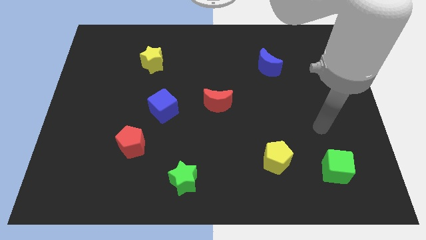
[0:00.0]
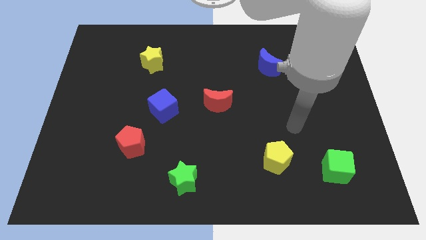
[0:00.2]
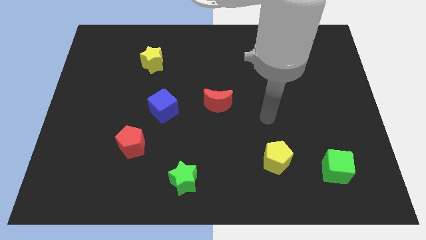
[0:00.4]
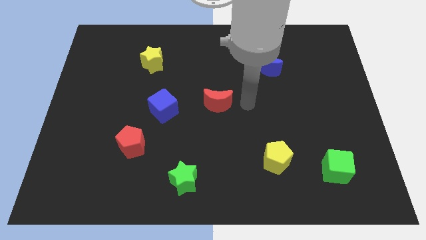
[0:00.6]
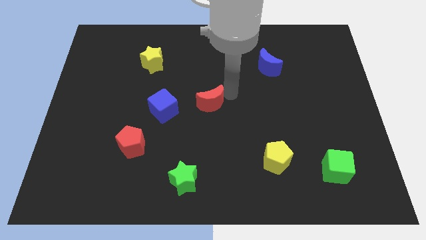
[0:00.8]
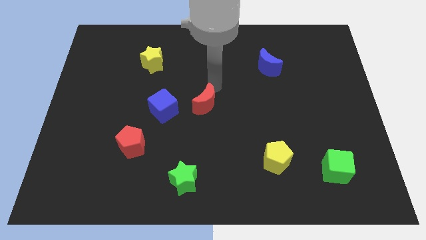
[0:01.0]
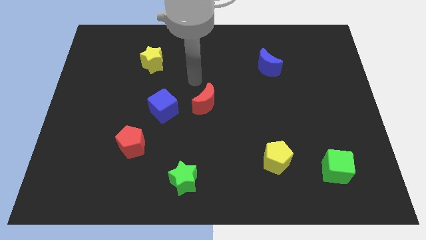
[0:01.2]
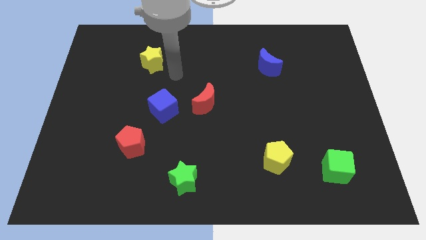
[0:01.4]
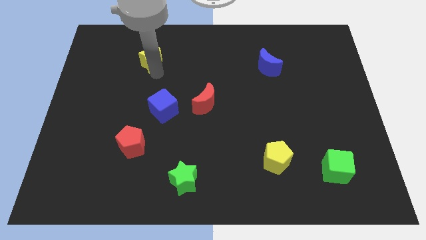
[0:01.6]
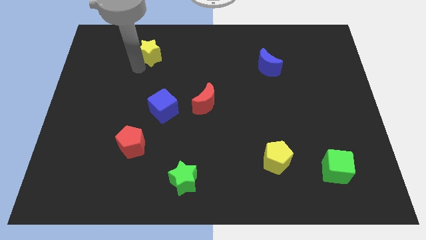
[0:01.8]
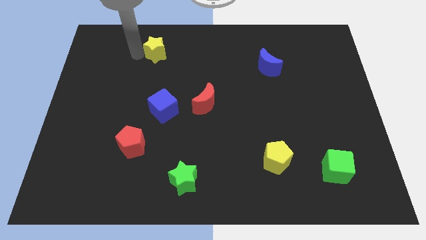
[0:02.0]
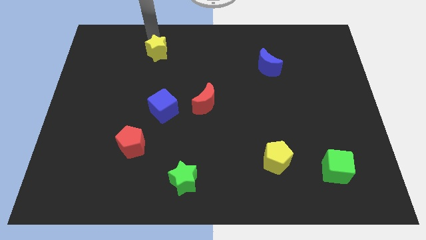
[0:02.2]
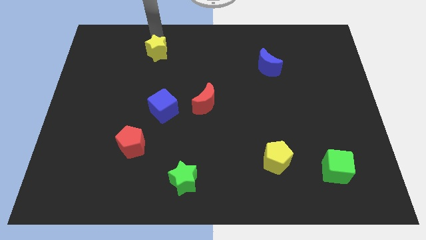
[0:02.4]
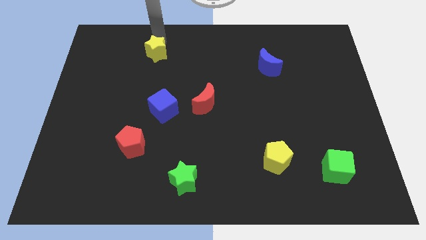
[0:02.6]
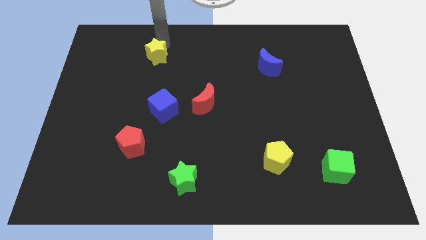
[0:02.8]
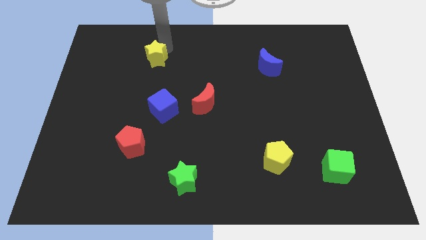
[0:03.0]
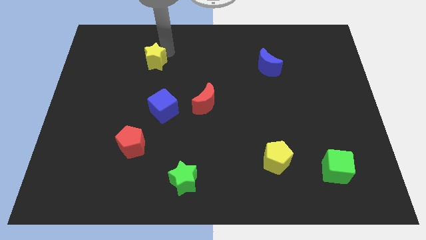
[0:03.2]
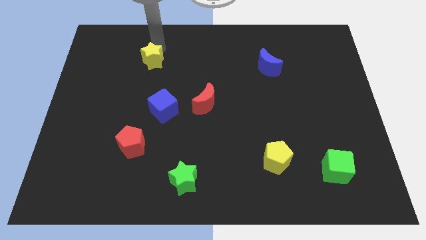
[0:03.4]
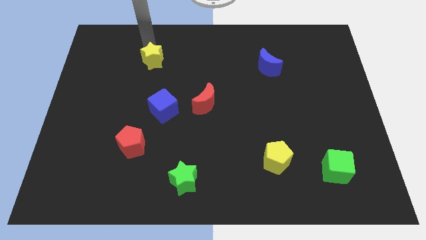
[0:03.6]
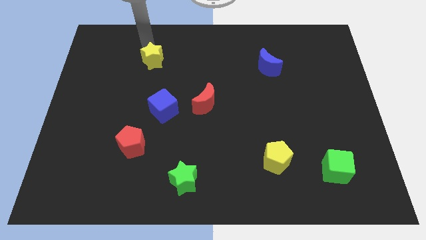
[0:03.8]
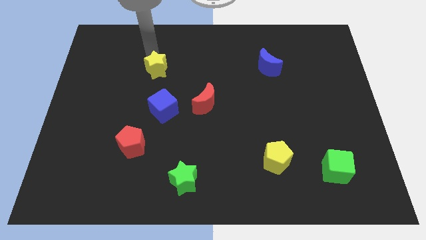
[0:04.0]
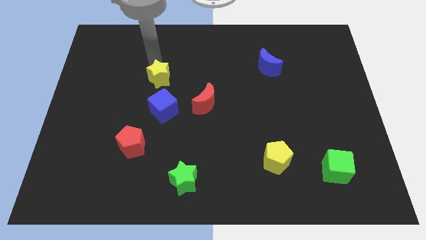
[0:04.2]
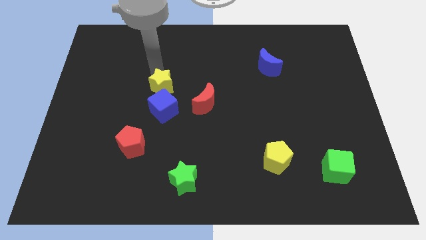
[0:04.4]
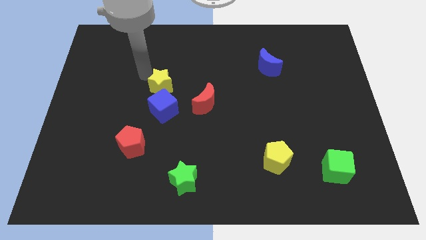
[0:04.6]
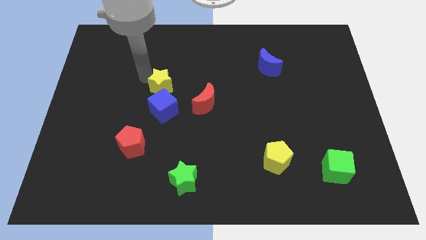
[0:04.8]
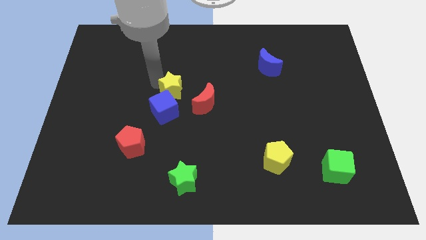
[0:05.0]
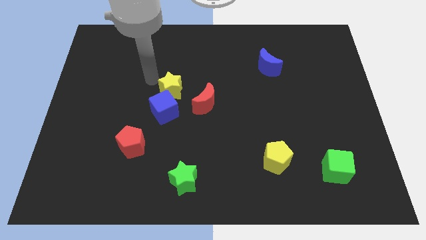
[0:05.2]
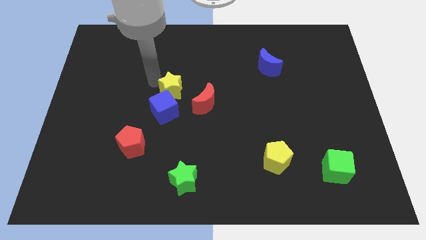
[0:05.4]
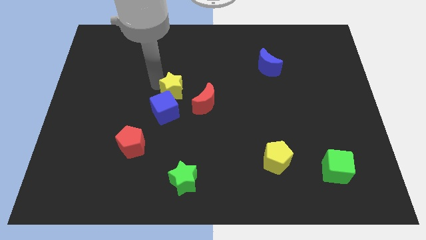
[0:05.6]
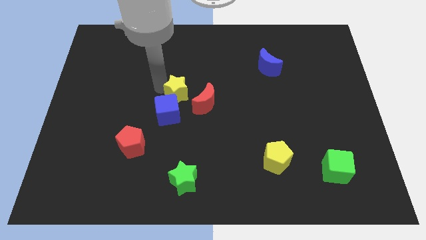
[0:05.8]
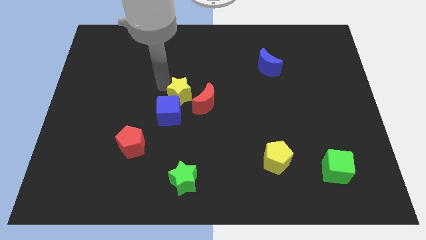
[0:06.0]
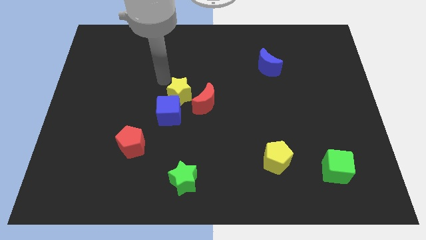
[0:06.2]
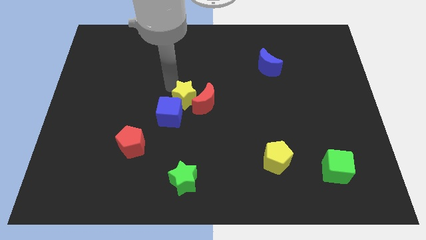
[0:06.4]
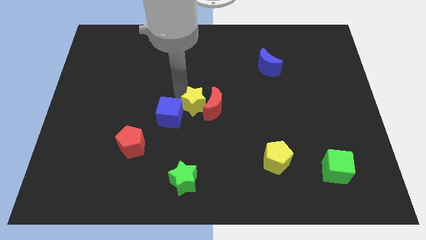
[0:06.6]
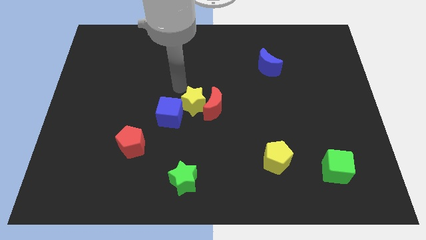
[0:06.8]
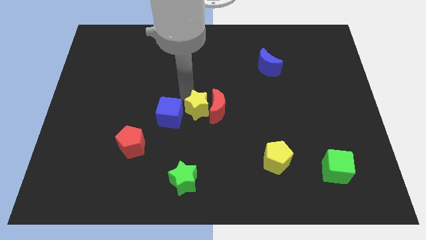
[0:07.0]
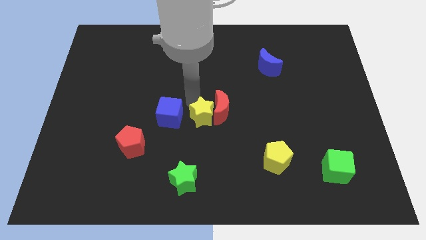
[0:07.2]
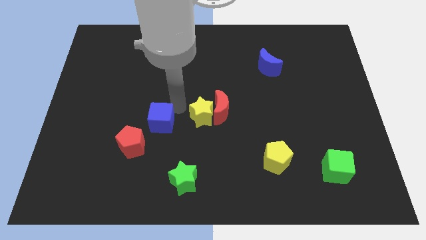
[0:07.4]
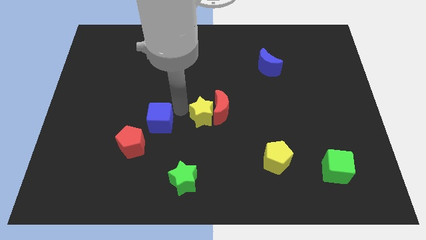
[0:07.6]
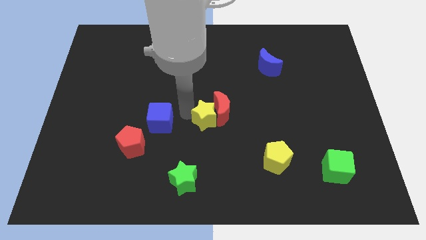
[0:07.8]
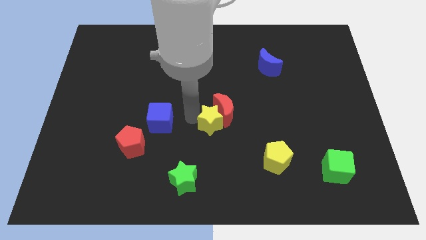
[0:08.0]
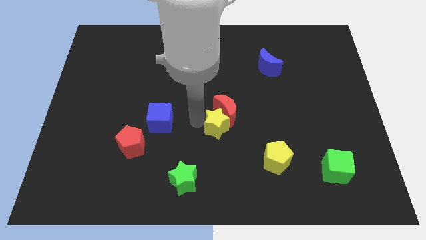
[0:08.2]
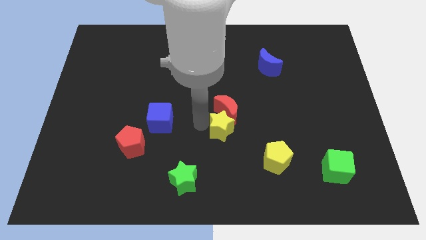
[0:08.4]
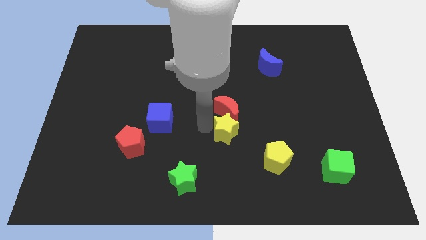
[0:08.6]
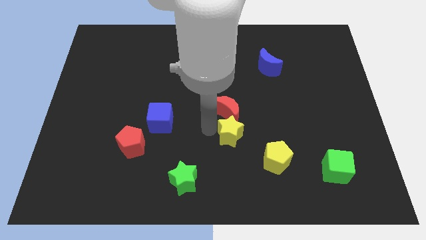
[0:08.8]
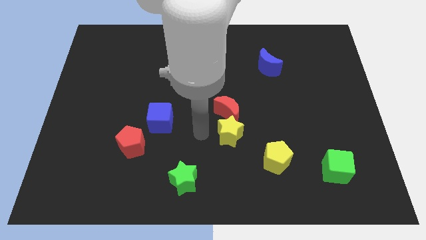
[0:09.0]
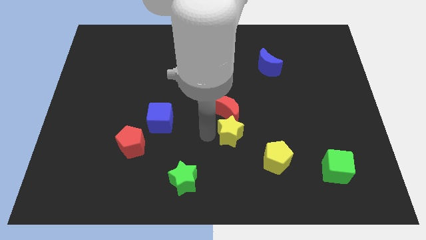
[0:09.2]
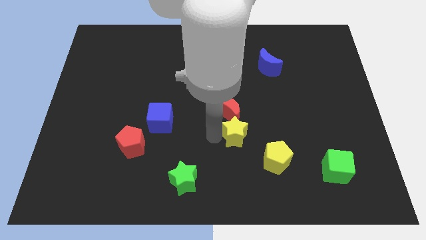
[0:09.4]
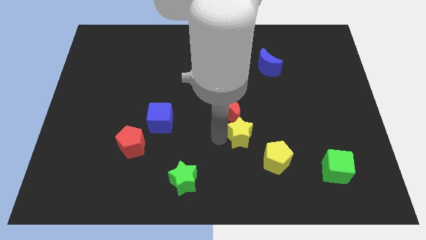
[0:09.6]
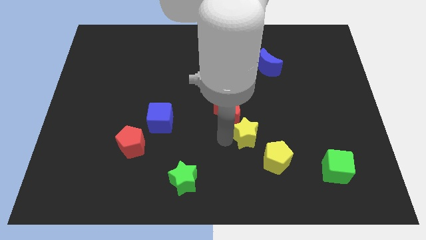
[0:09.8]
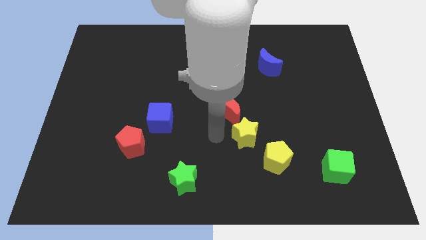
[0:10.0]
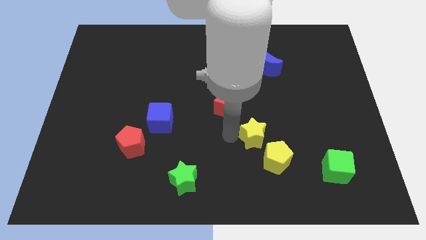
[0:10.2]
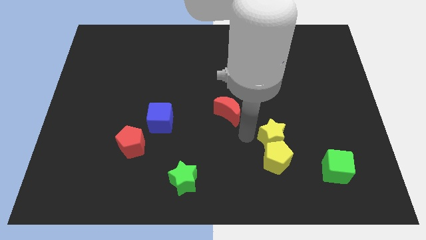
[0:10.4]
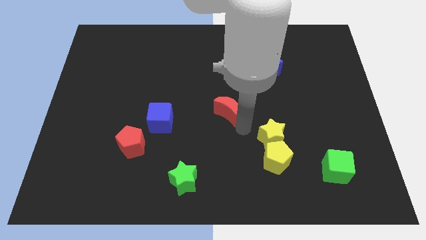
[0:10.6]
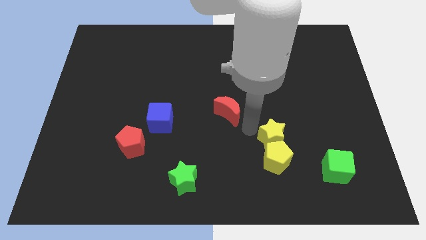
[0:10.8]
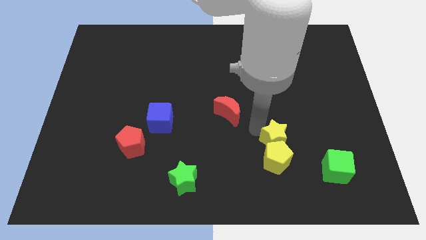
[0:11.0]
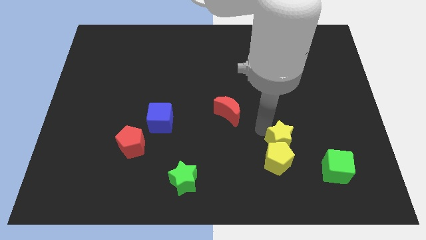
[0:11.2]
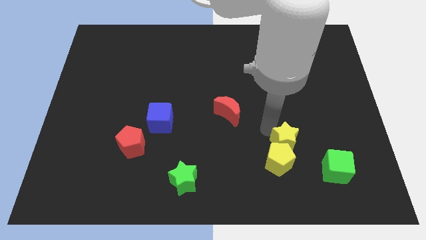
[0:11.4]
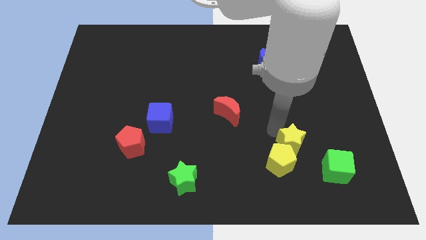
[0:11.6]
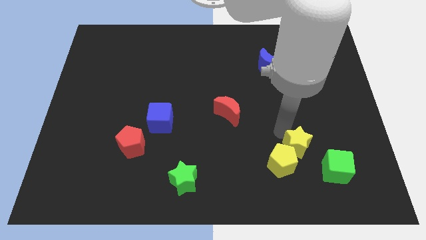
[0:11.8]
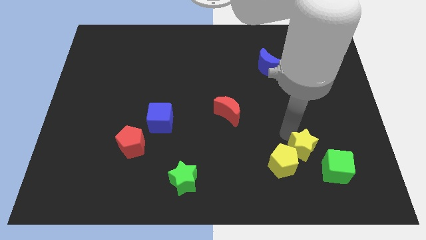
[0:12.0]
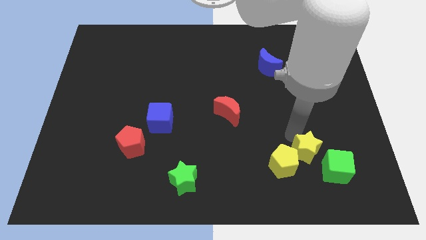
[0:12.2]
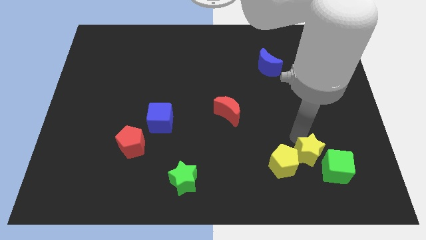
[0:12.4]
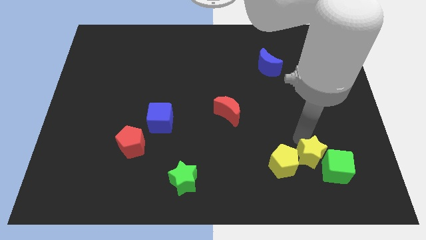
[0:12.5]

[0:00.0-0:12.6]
slide the yellow star towards the green cube
